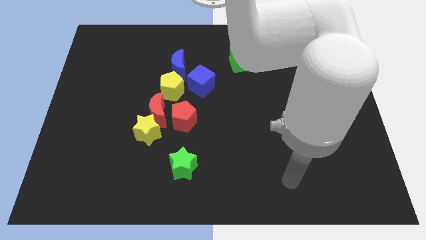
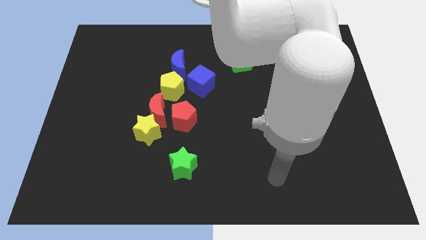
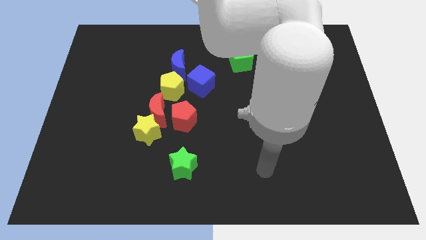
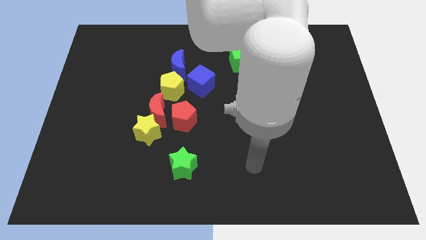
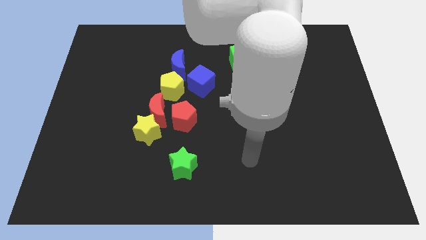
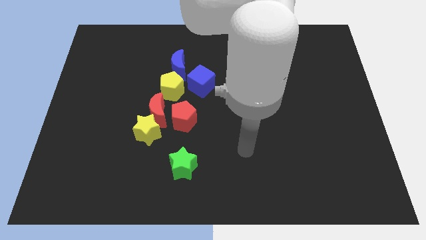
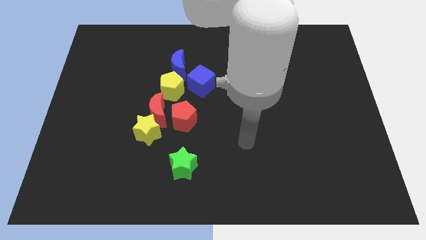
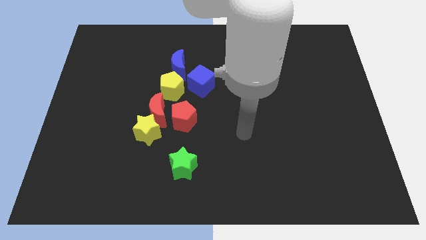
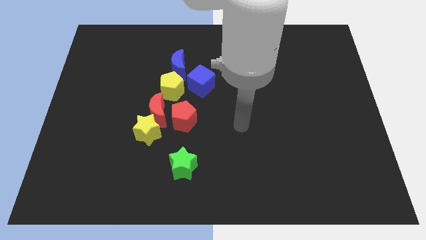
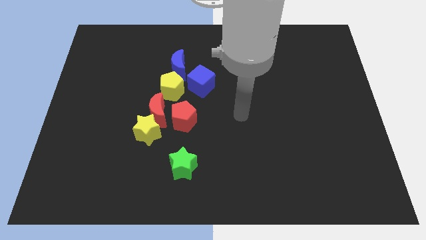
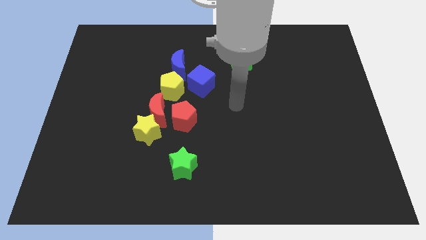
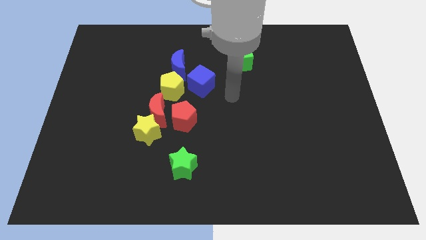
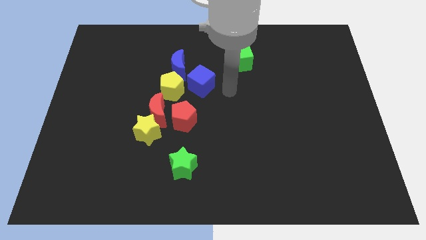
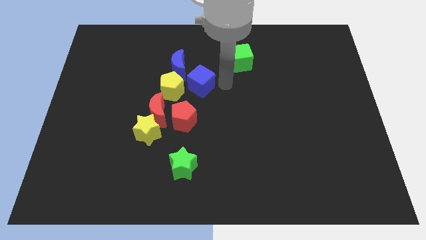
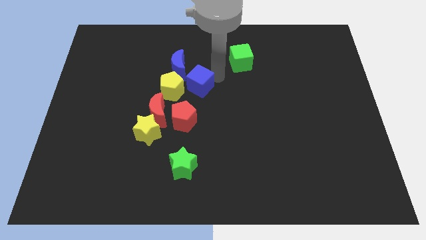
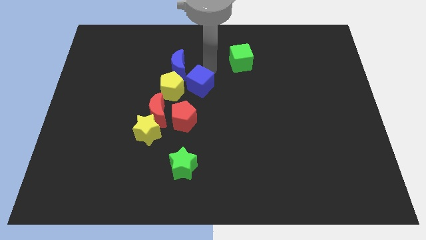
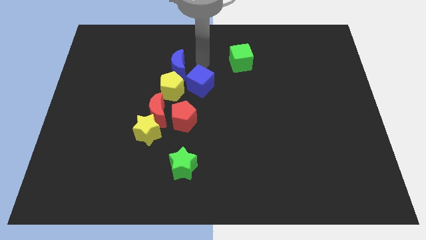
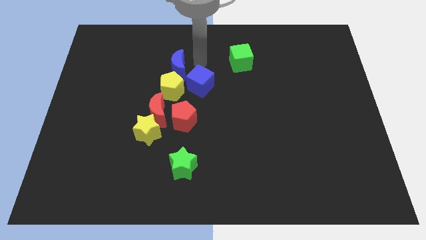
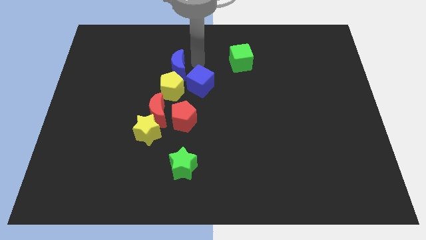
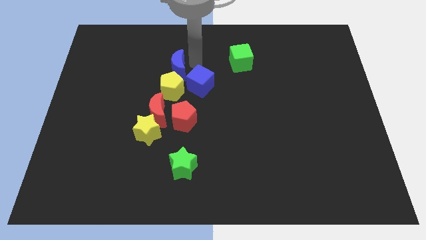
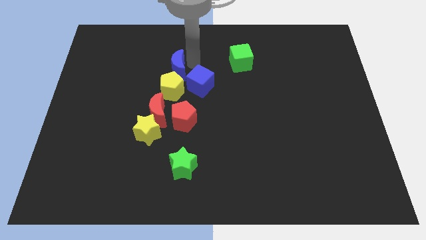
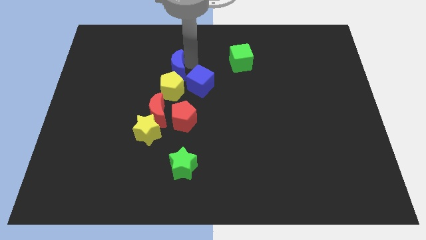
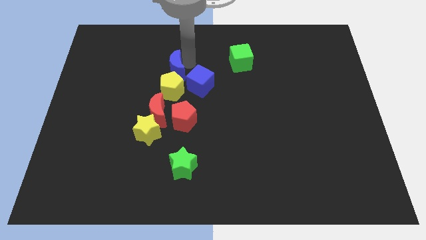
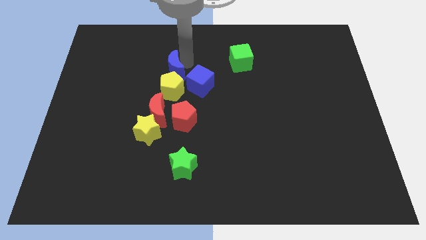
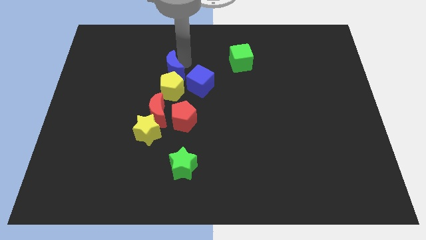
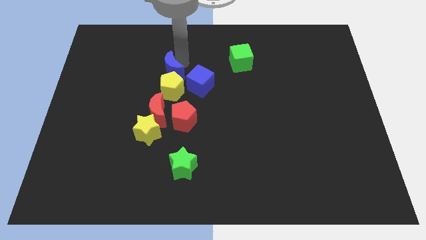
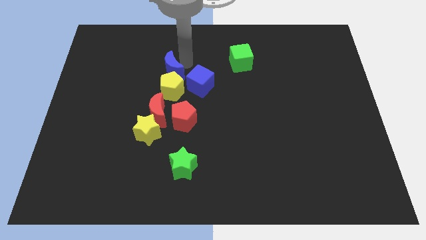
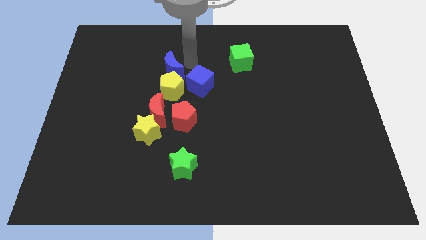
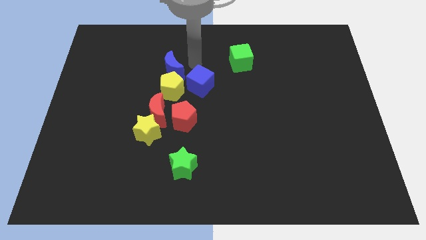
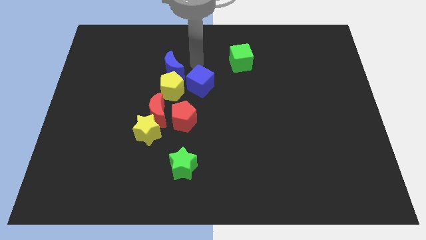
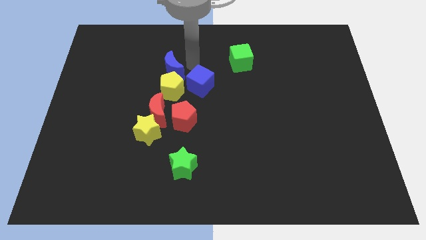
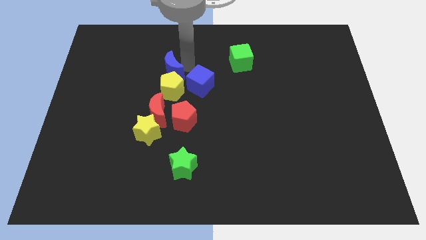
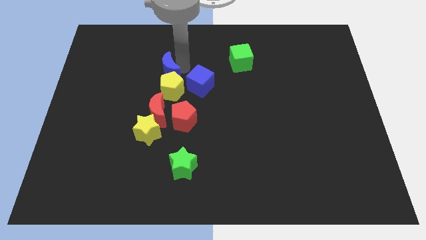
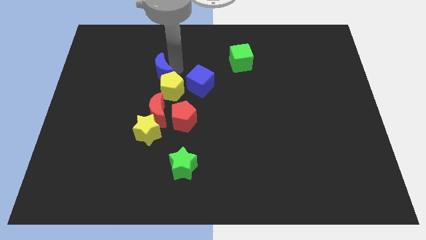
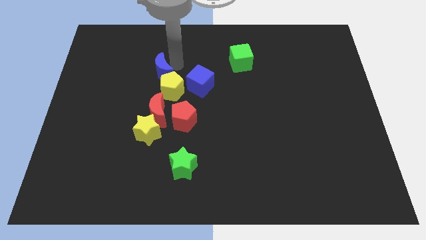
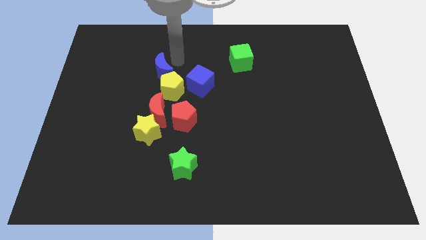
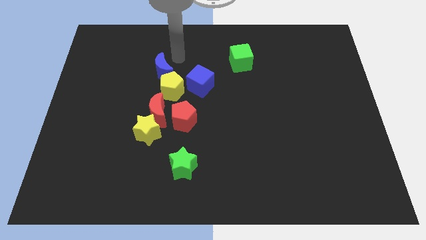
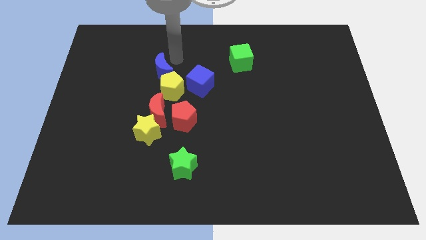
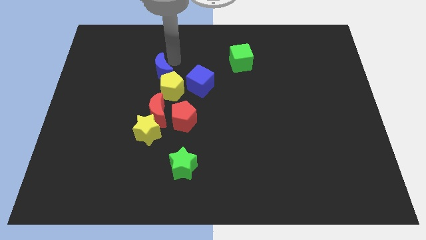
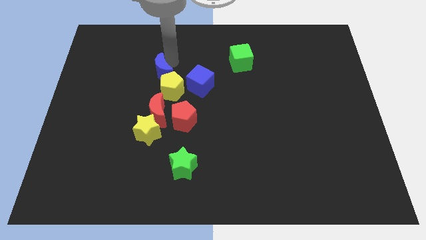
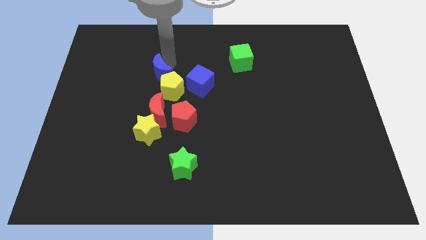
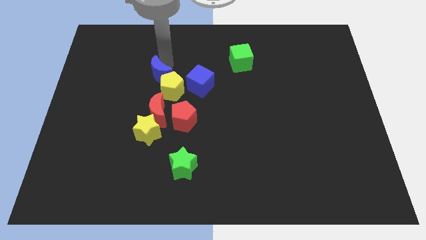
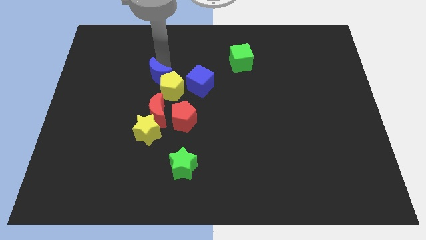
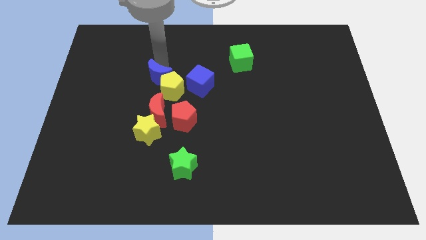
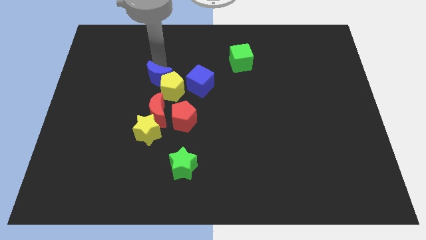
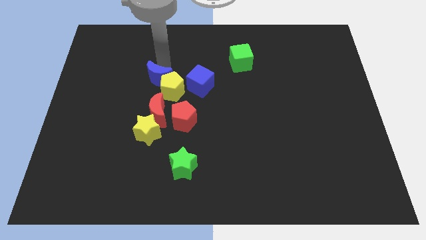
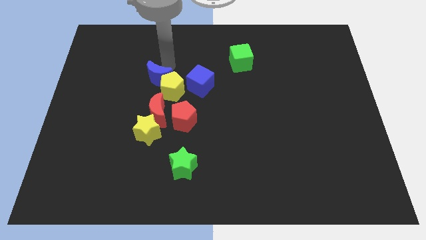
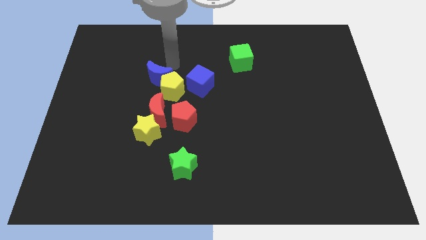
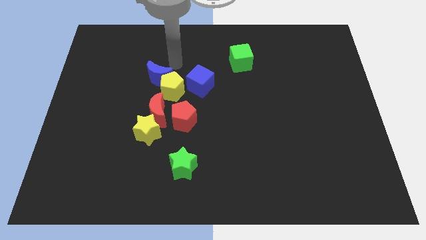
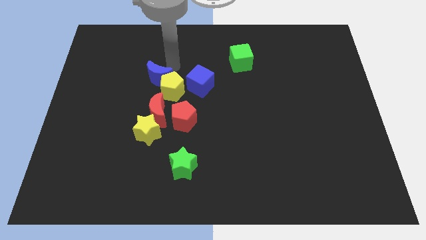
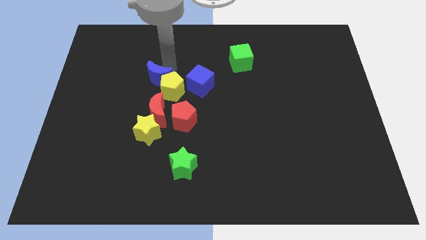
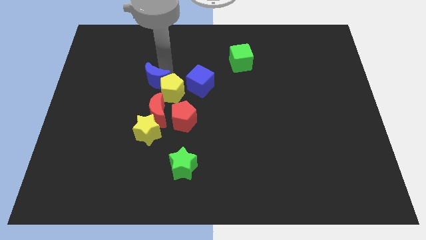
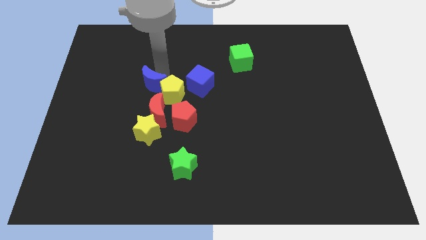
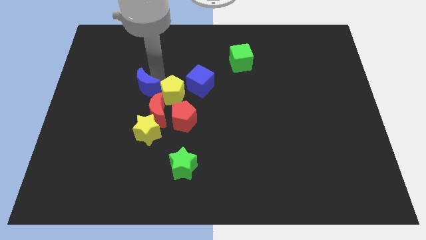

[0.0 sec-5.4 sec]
move the blue moon diagonally up and to the left of the red moon

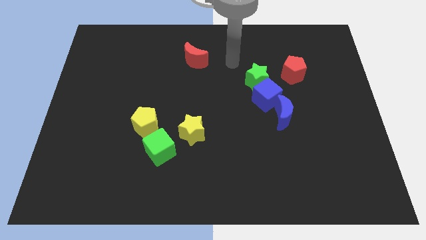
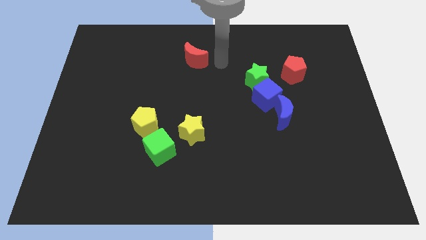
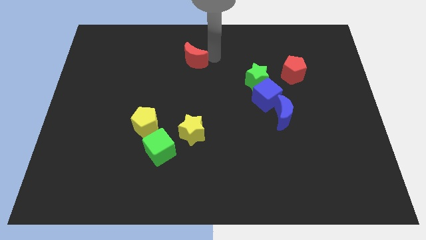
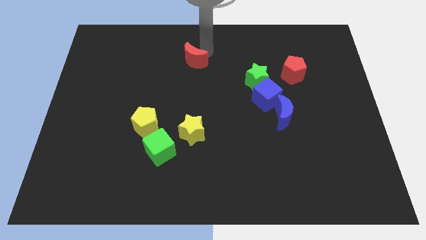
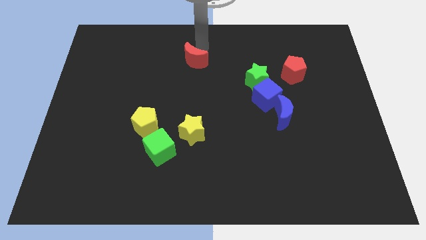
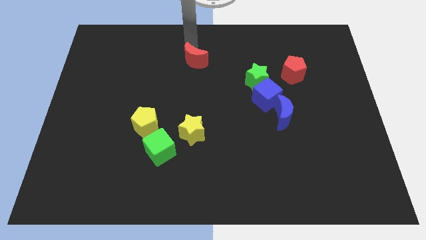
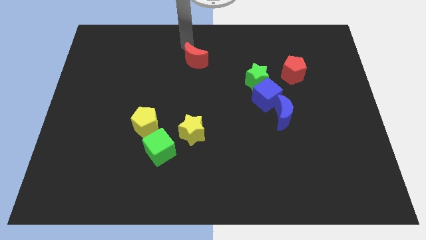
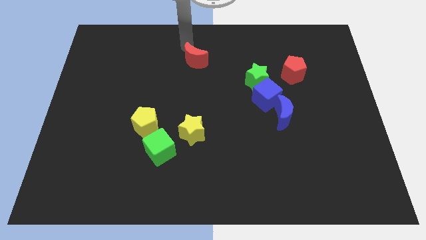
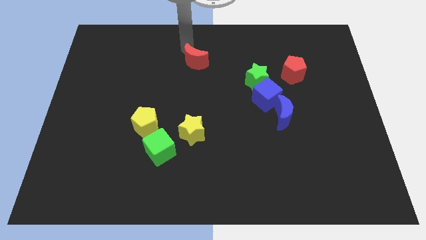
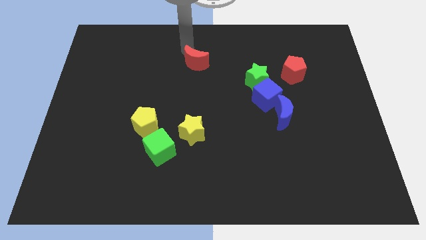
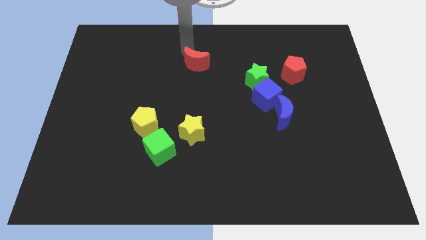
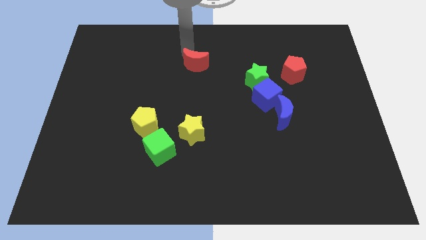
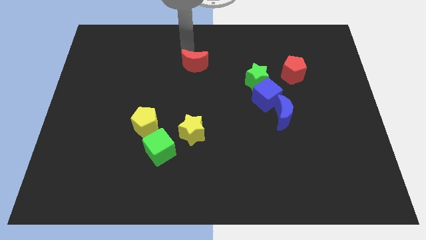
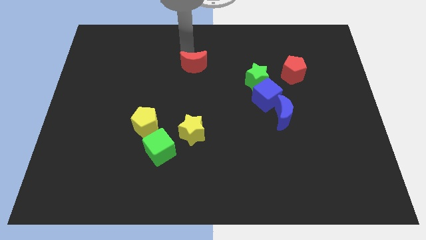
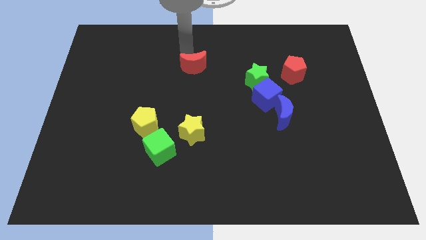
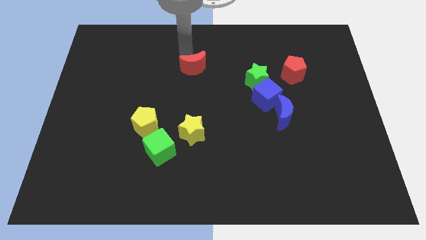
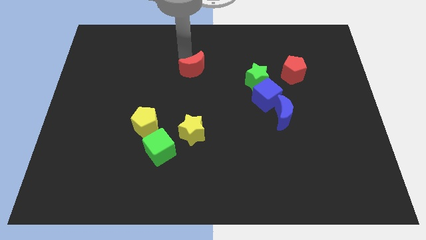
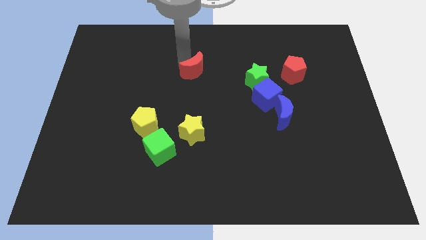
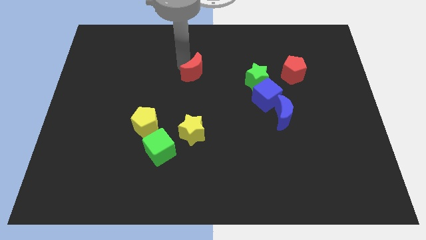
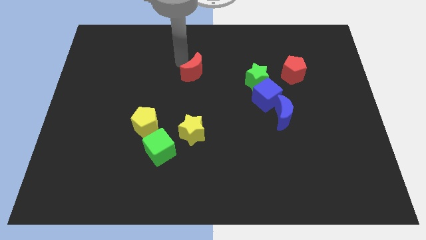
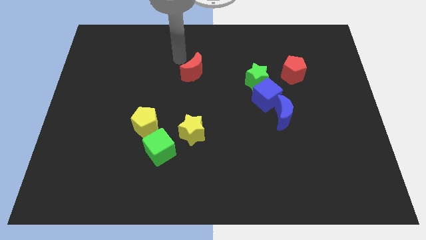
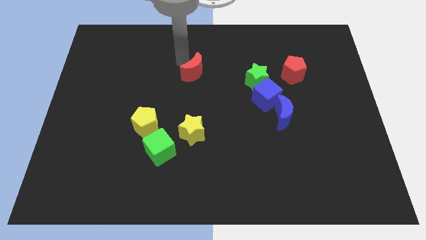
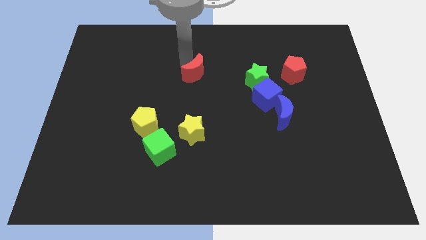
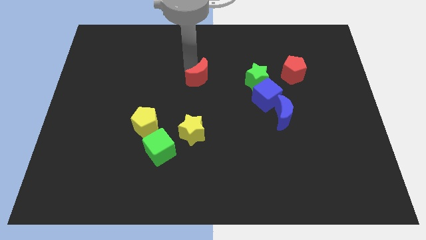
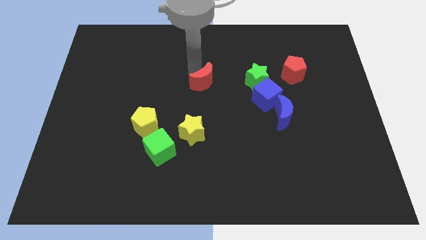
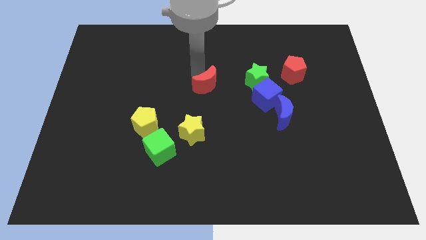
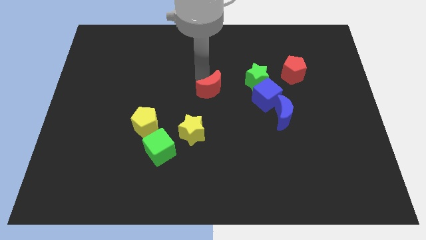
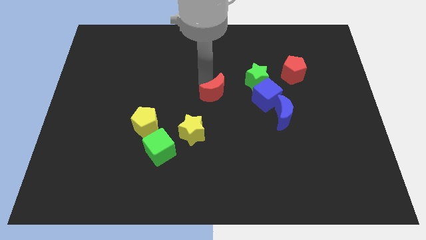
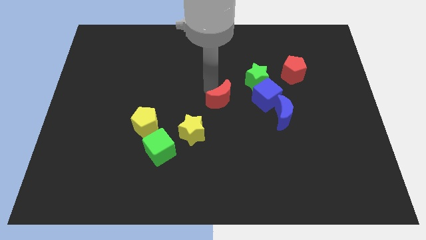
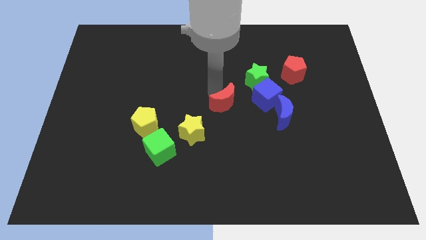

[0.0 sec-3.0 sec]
put the red moon to the left side of the blue moon
